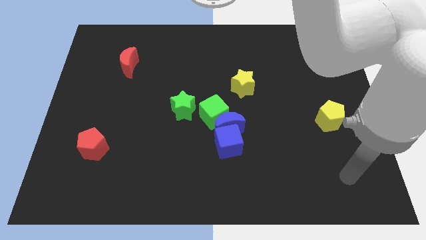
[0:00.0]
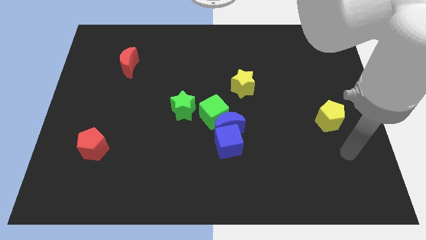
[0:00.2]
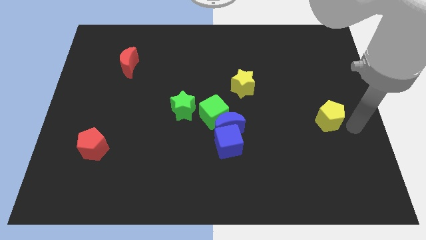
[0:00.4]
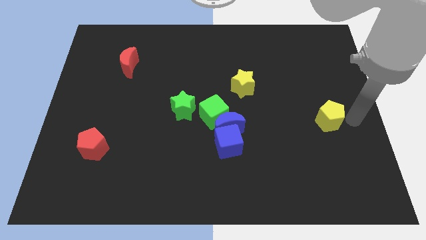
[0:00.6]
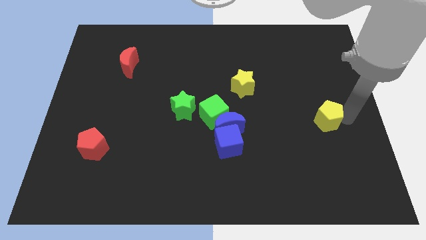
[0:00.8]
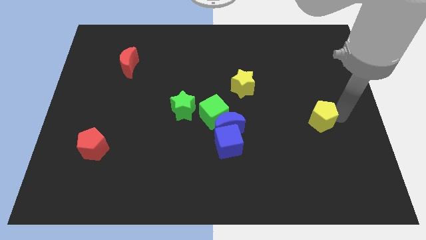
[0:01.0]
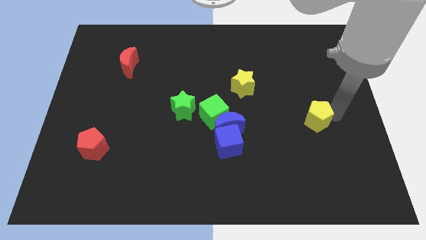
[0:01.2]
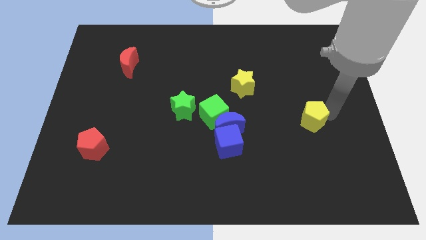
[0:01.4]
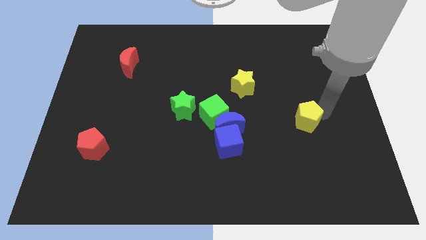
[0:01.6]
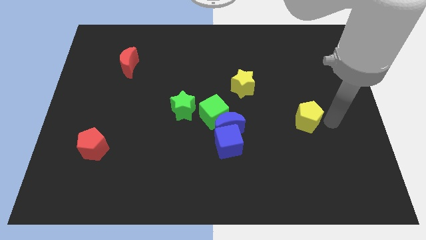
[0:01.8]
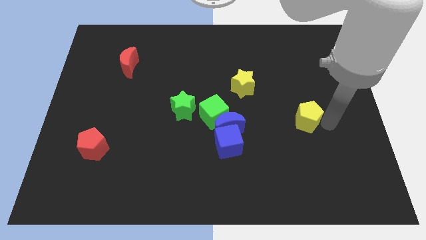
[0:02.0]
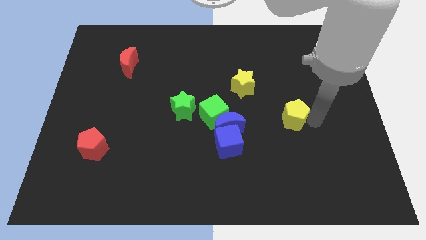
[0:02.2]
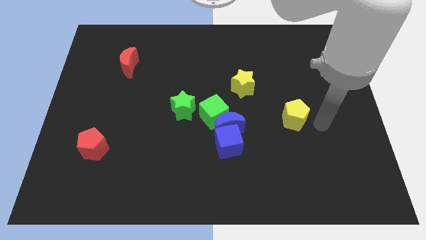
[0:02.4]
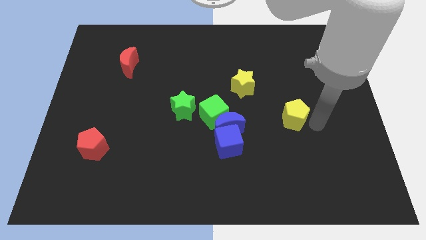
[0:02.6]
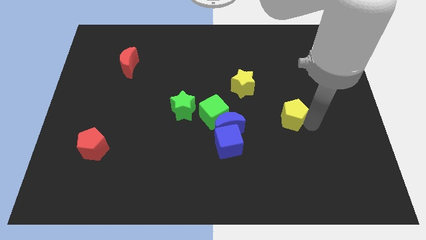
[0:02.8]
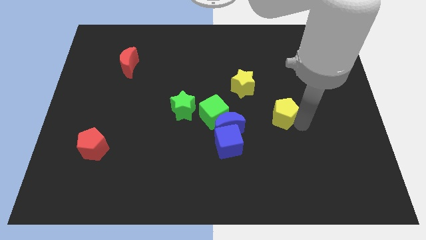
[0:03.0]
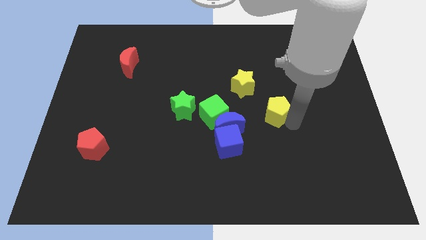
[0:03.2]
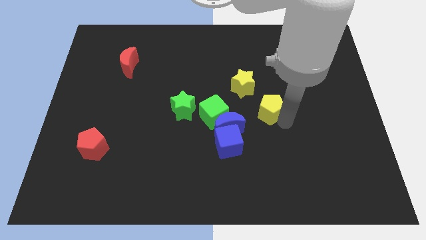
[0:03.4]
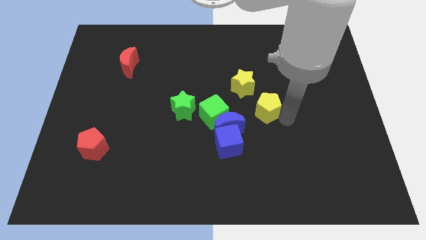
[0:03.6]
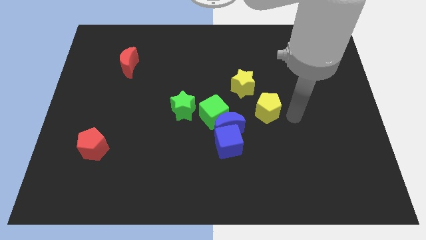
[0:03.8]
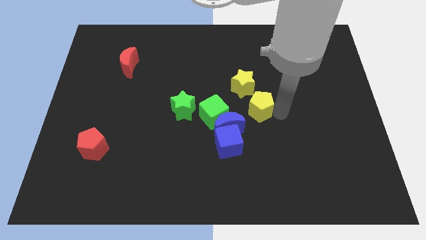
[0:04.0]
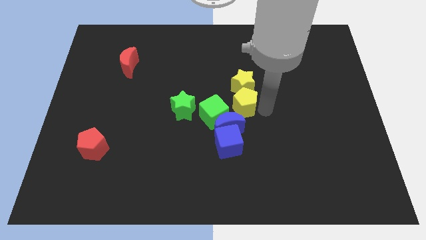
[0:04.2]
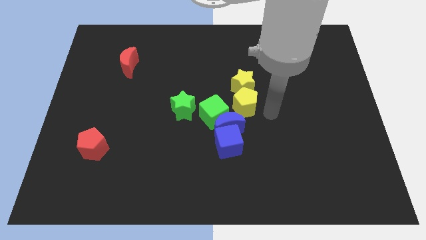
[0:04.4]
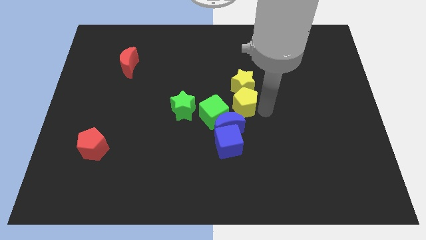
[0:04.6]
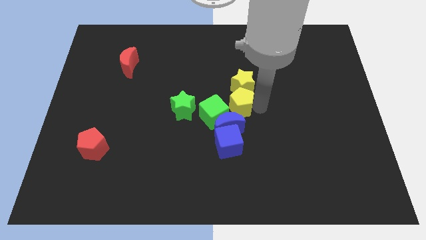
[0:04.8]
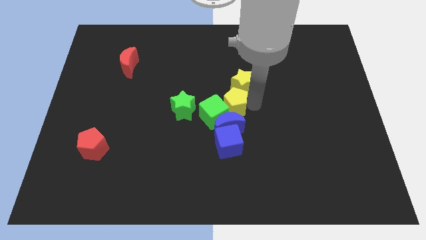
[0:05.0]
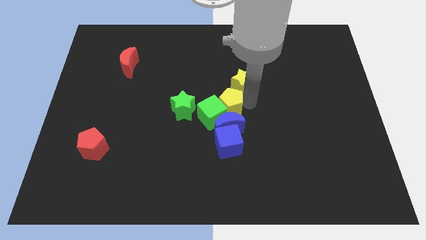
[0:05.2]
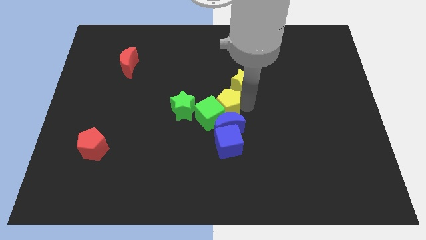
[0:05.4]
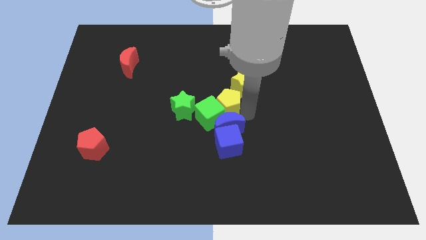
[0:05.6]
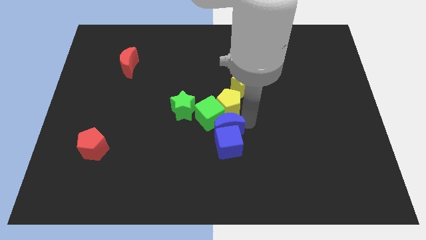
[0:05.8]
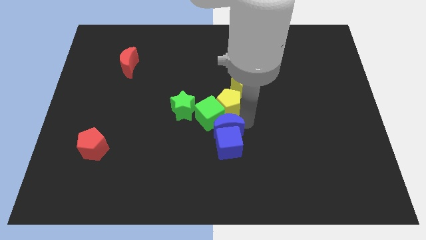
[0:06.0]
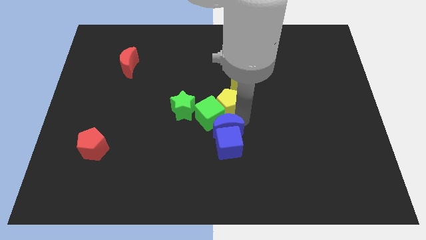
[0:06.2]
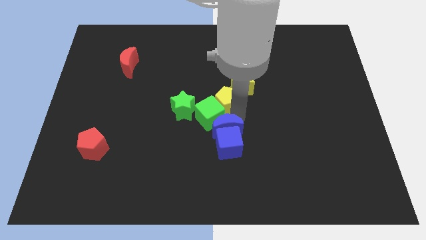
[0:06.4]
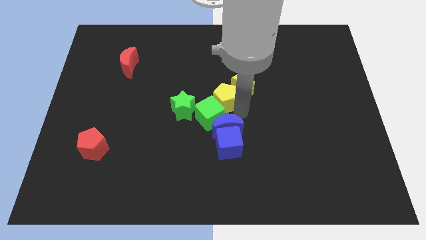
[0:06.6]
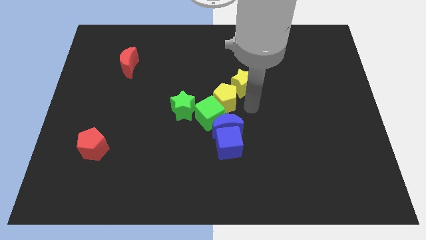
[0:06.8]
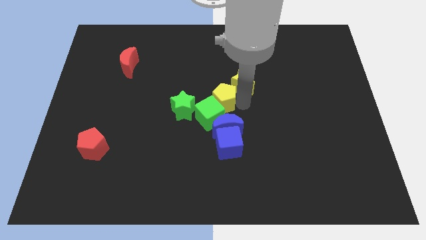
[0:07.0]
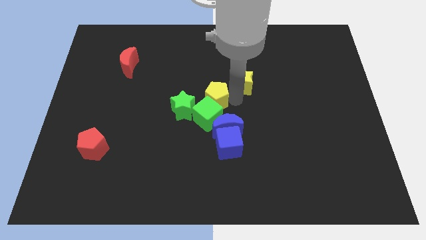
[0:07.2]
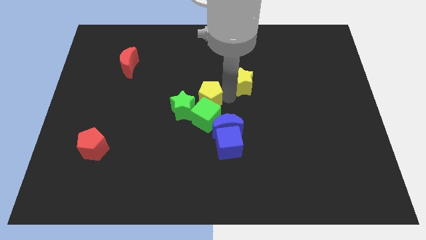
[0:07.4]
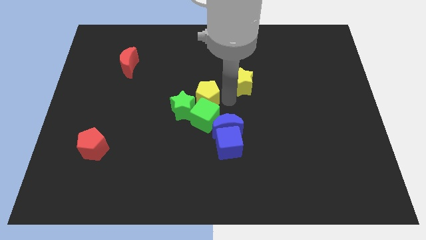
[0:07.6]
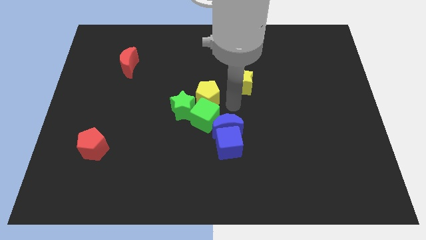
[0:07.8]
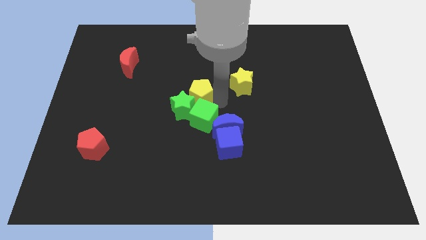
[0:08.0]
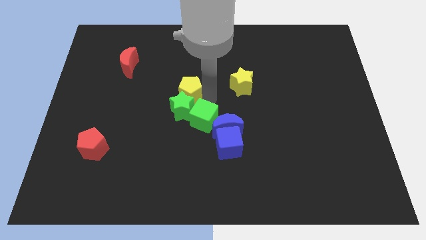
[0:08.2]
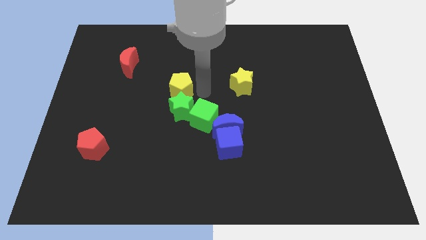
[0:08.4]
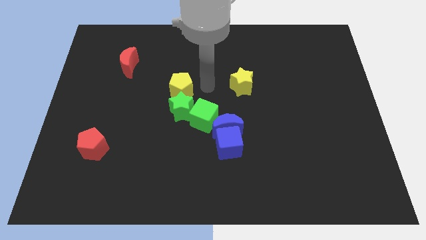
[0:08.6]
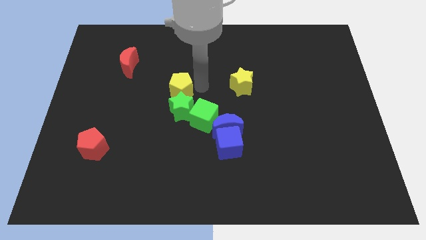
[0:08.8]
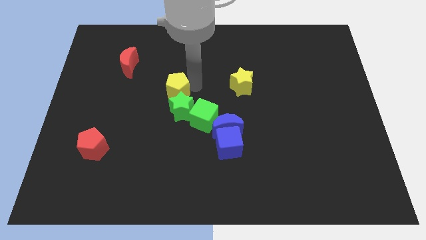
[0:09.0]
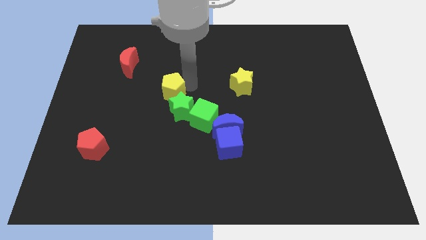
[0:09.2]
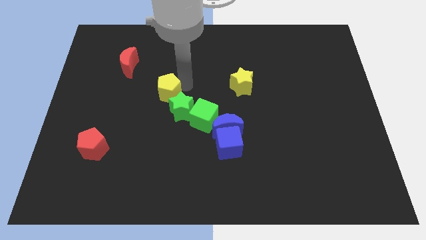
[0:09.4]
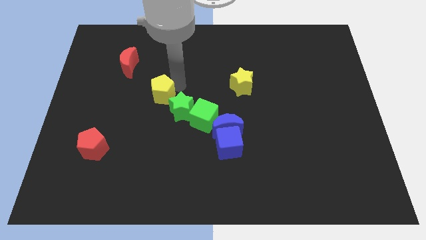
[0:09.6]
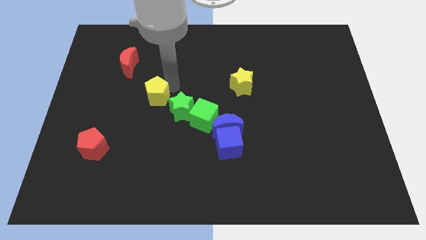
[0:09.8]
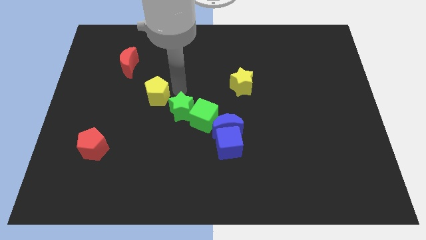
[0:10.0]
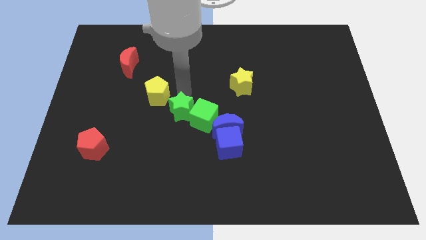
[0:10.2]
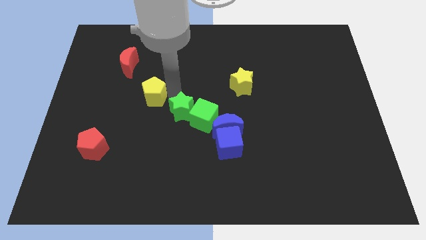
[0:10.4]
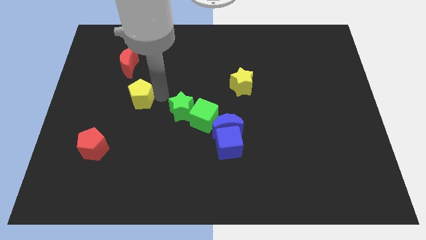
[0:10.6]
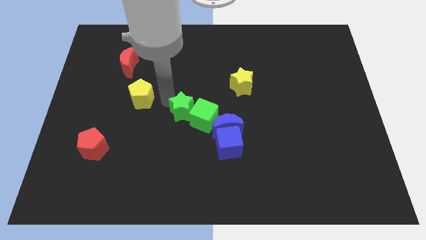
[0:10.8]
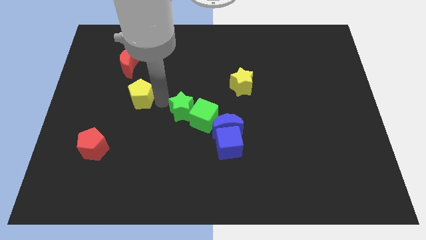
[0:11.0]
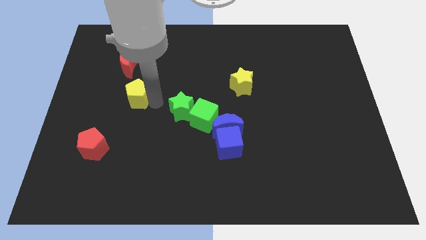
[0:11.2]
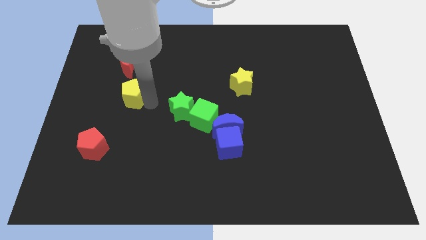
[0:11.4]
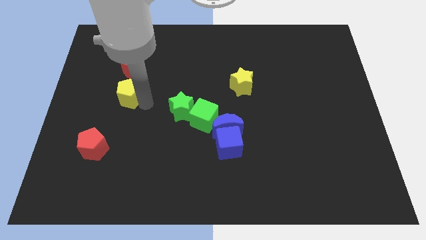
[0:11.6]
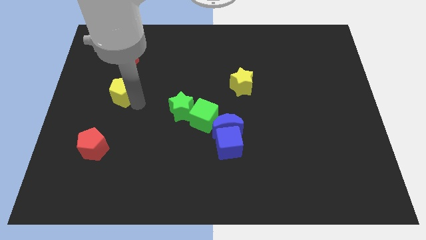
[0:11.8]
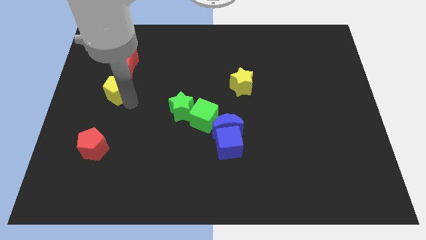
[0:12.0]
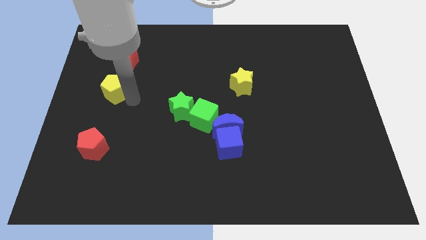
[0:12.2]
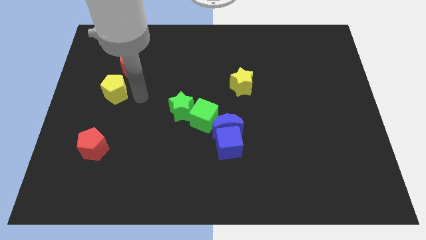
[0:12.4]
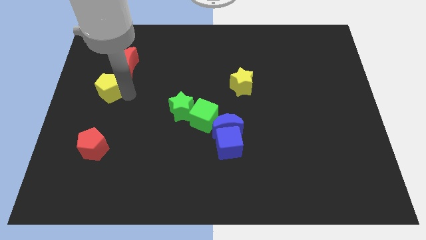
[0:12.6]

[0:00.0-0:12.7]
push the yellow pentagon to the center left

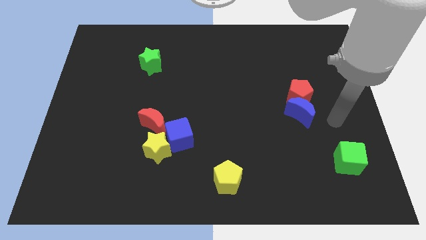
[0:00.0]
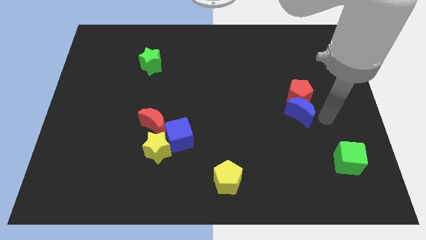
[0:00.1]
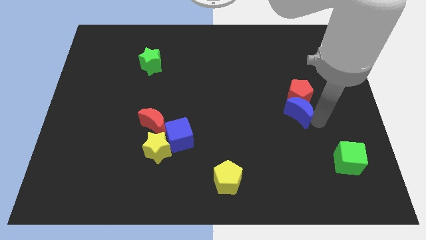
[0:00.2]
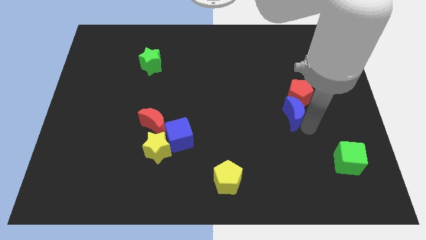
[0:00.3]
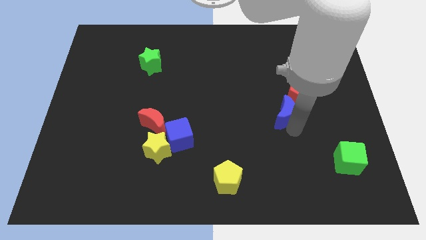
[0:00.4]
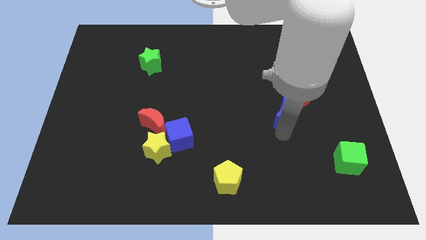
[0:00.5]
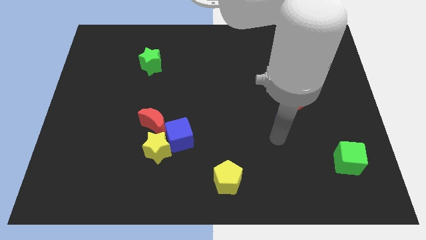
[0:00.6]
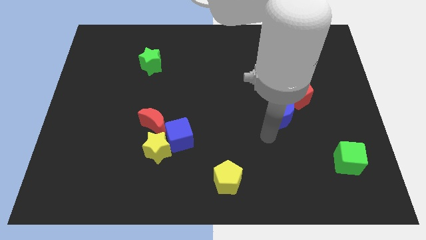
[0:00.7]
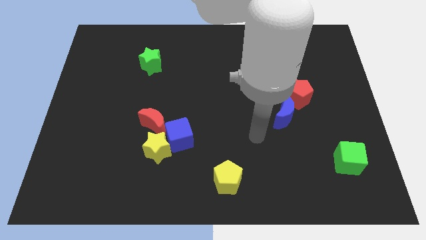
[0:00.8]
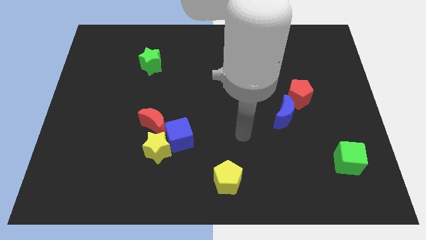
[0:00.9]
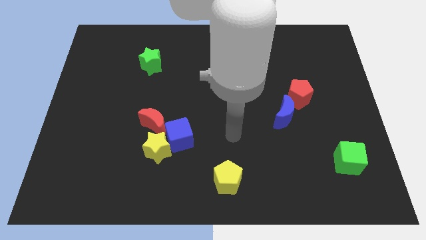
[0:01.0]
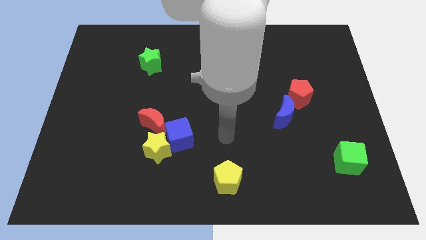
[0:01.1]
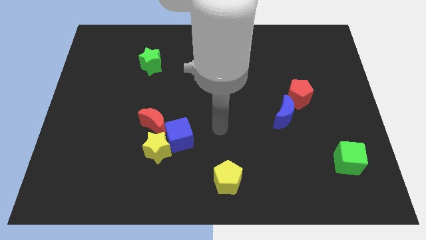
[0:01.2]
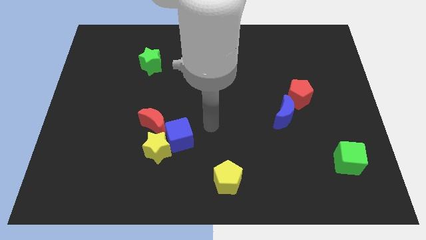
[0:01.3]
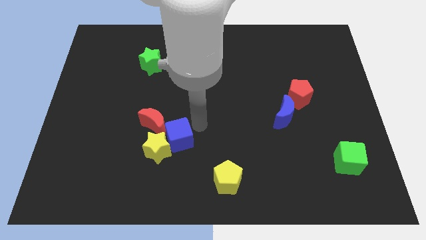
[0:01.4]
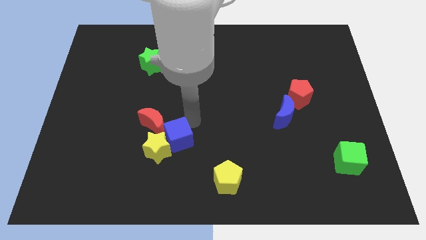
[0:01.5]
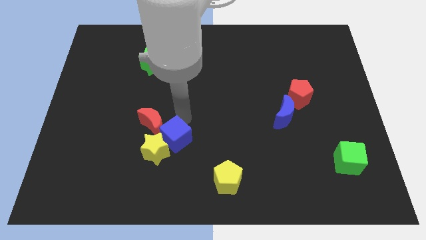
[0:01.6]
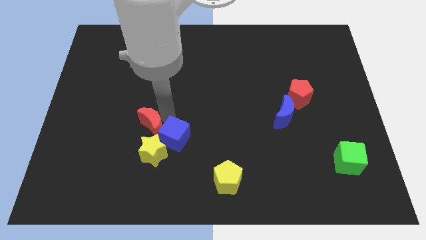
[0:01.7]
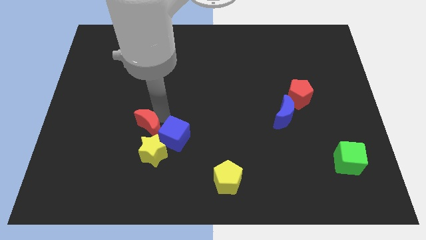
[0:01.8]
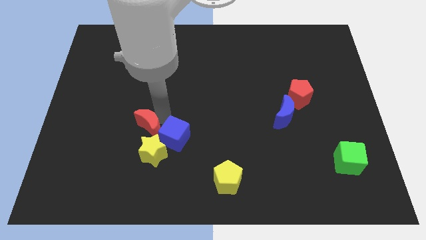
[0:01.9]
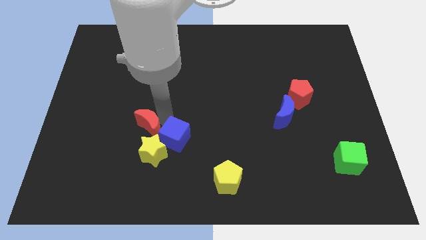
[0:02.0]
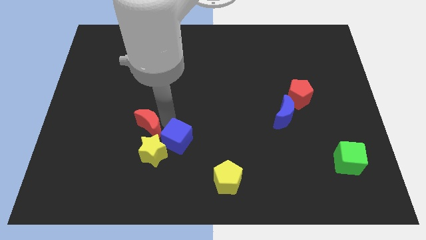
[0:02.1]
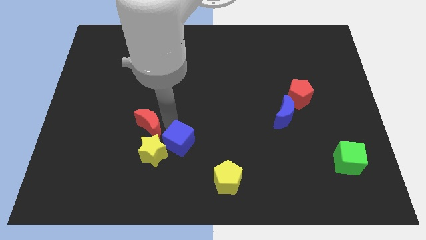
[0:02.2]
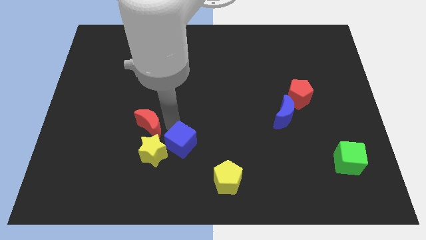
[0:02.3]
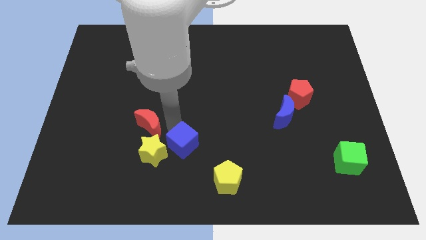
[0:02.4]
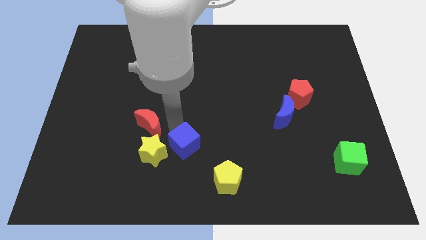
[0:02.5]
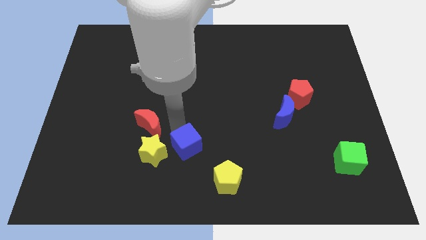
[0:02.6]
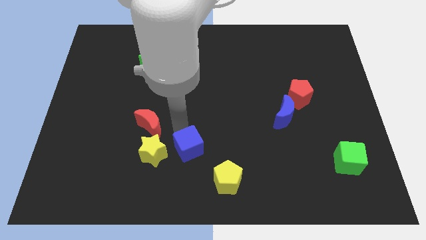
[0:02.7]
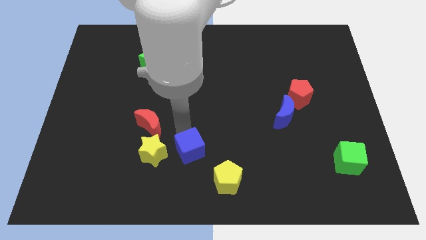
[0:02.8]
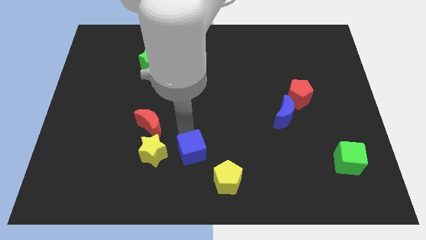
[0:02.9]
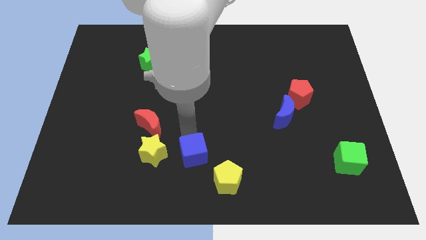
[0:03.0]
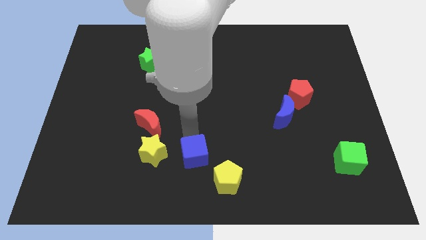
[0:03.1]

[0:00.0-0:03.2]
put the blue cube to the bottom
